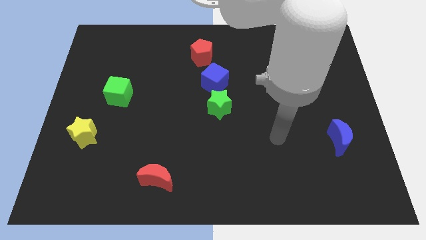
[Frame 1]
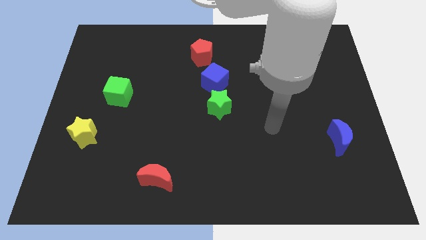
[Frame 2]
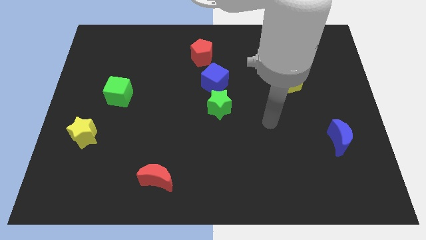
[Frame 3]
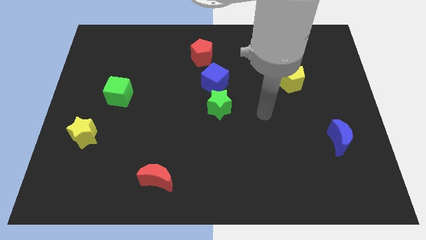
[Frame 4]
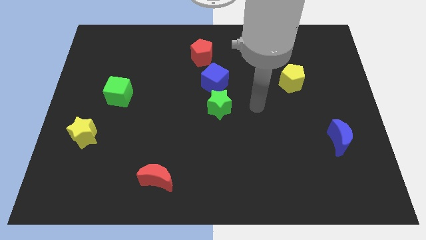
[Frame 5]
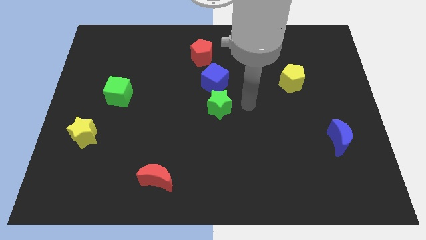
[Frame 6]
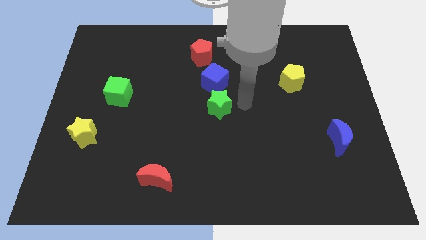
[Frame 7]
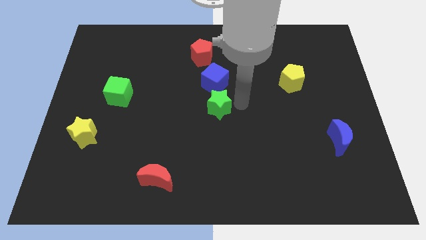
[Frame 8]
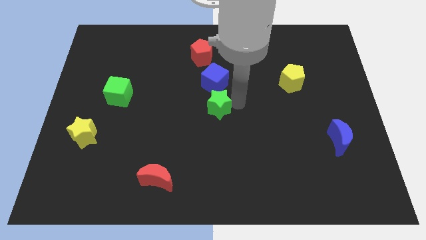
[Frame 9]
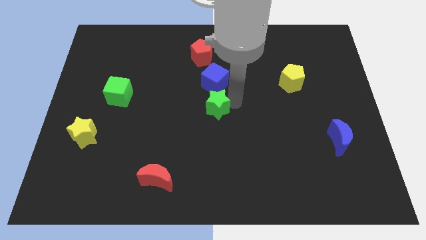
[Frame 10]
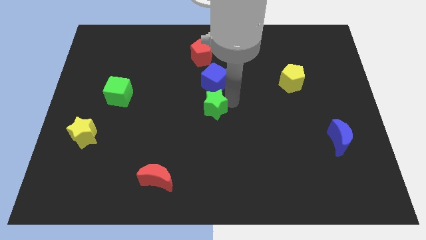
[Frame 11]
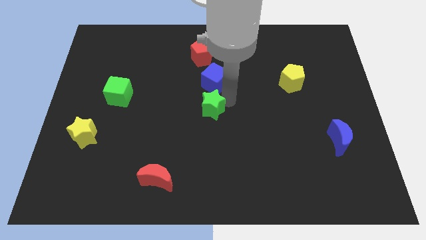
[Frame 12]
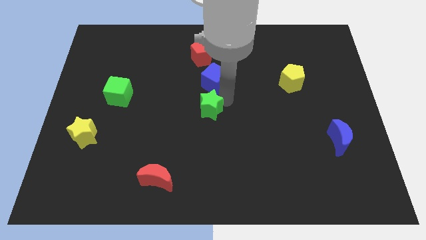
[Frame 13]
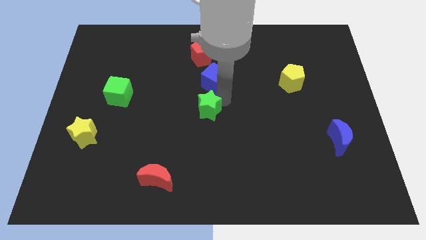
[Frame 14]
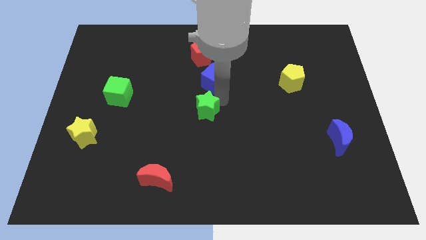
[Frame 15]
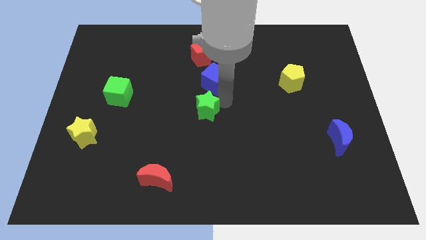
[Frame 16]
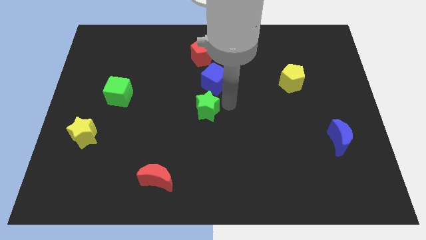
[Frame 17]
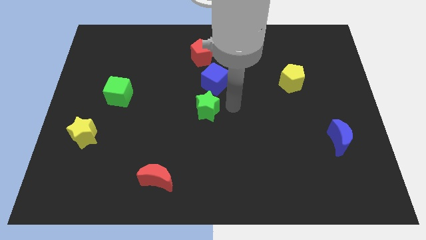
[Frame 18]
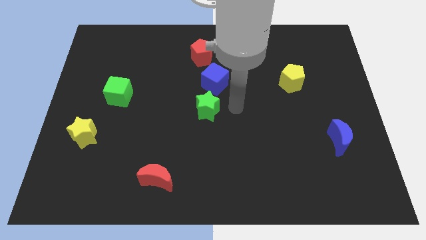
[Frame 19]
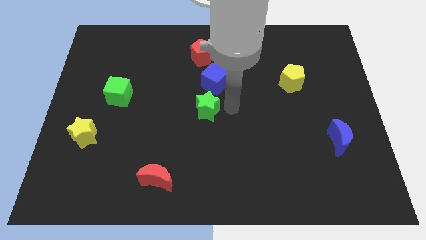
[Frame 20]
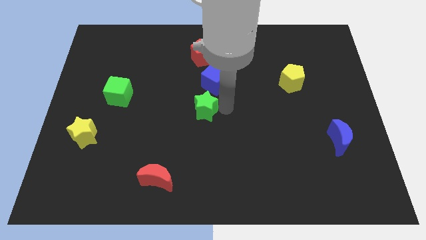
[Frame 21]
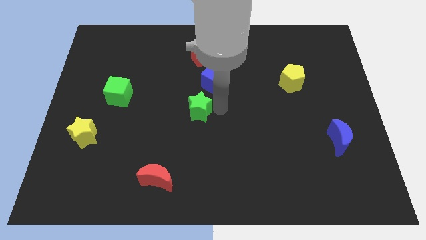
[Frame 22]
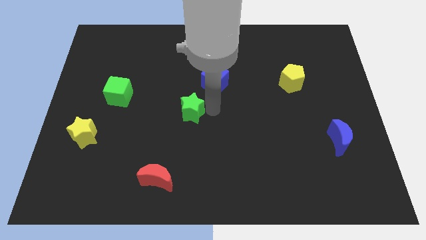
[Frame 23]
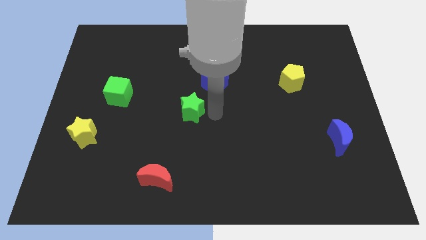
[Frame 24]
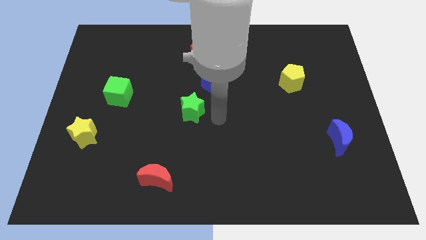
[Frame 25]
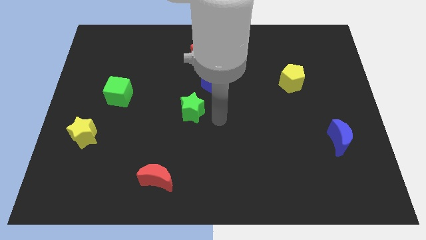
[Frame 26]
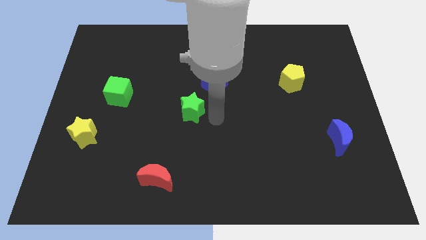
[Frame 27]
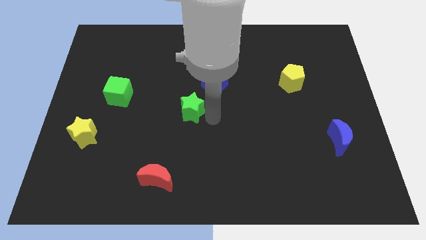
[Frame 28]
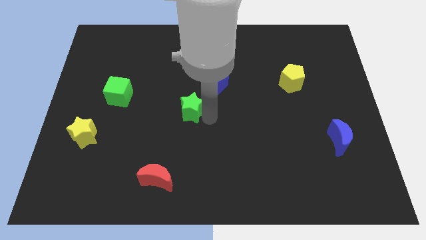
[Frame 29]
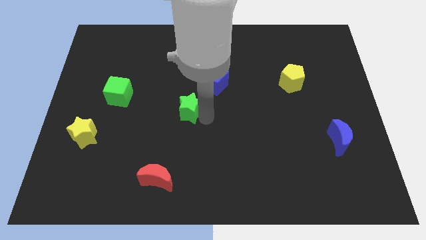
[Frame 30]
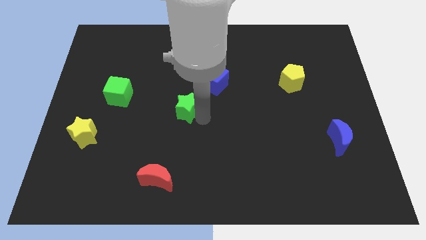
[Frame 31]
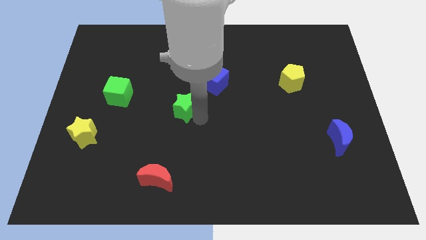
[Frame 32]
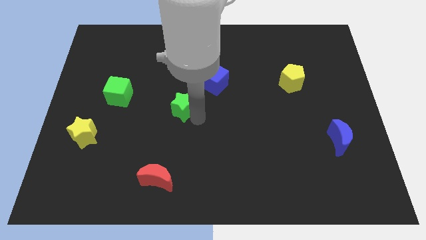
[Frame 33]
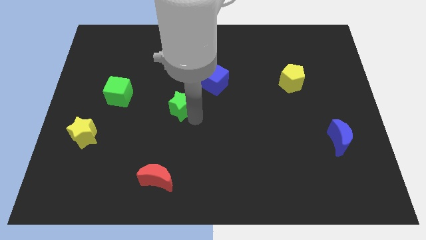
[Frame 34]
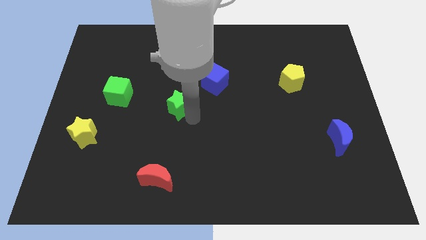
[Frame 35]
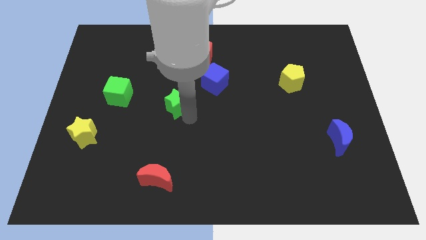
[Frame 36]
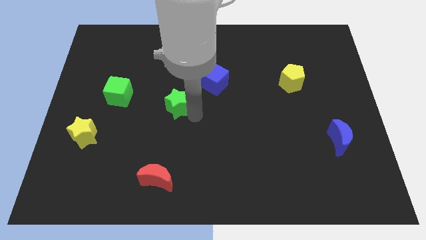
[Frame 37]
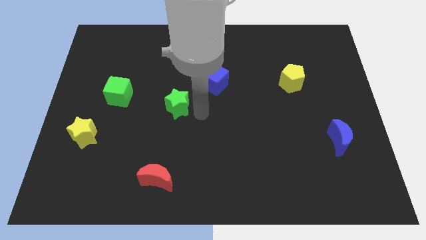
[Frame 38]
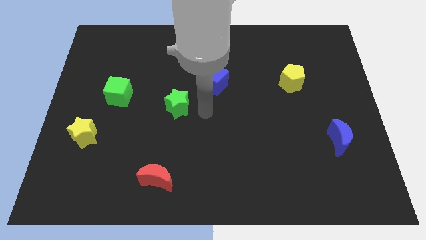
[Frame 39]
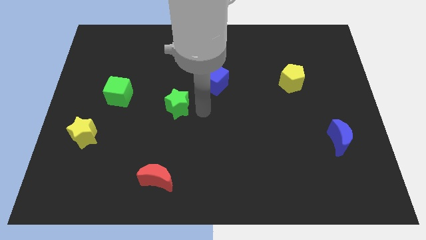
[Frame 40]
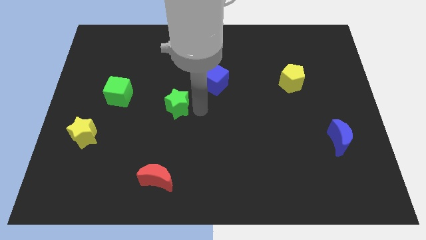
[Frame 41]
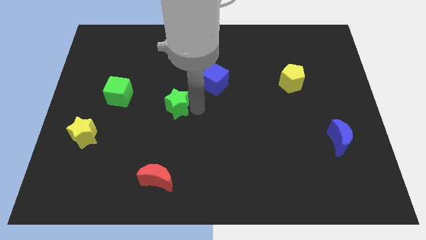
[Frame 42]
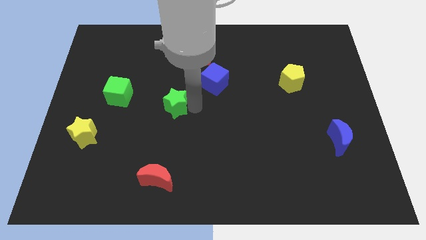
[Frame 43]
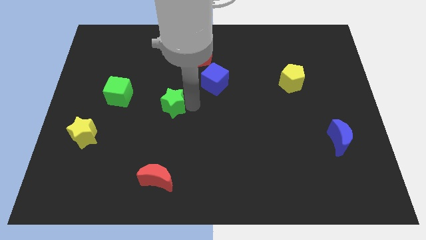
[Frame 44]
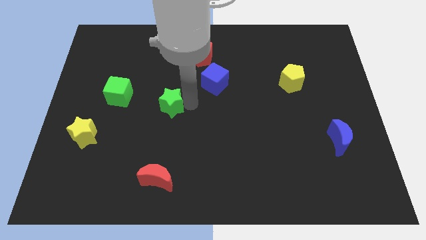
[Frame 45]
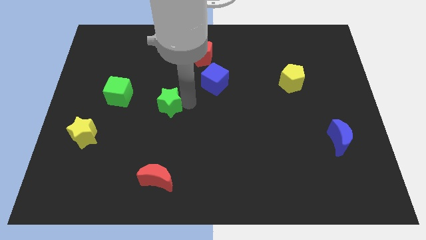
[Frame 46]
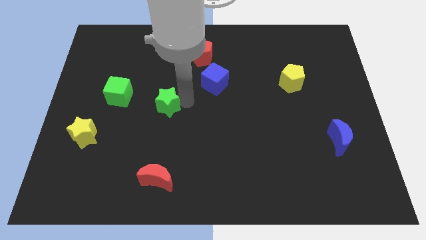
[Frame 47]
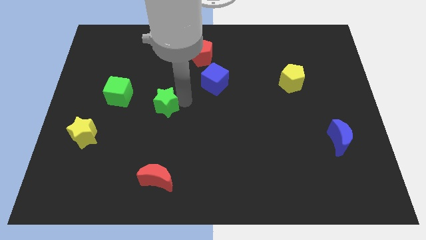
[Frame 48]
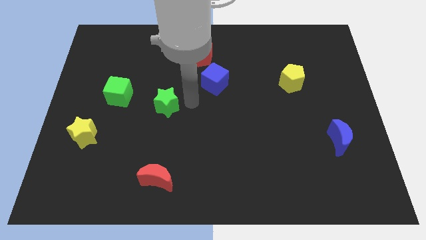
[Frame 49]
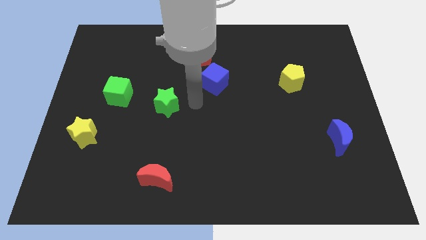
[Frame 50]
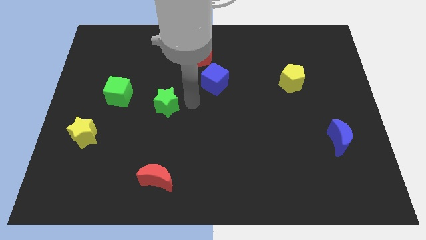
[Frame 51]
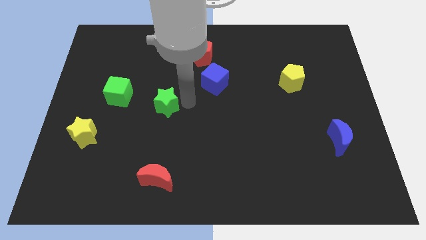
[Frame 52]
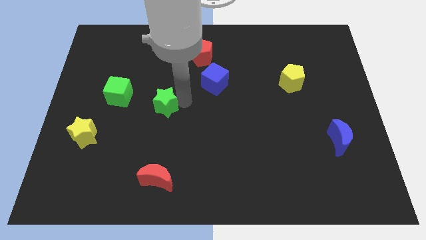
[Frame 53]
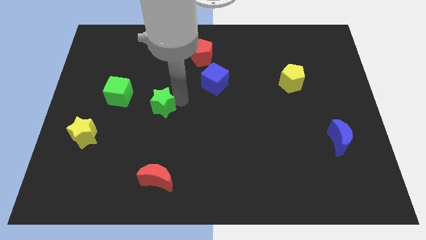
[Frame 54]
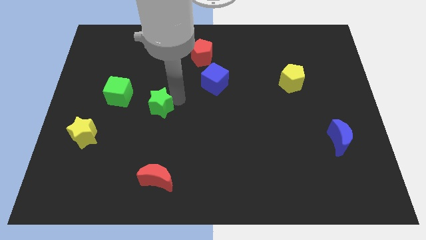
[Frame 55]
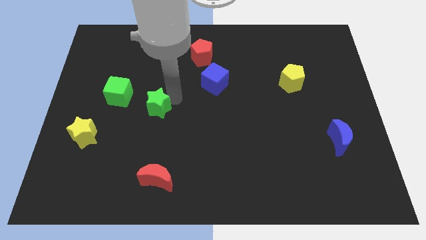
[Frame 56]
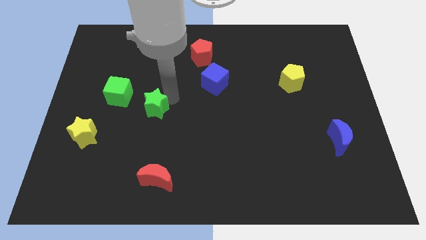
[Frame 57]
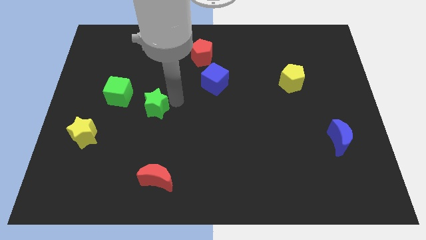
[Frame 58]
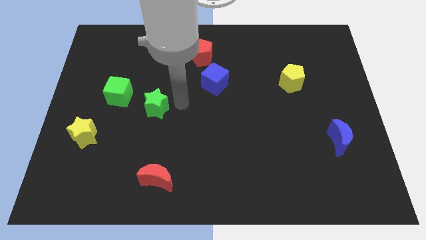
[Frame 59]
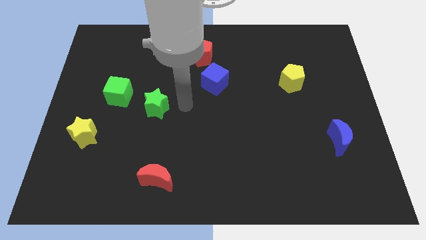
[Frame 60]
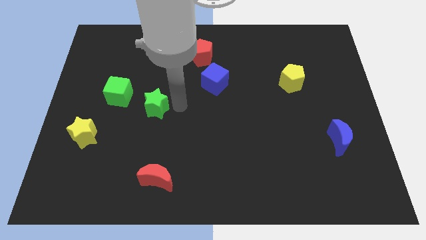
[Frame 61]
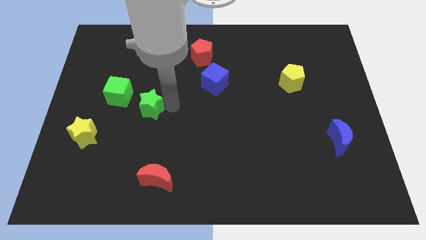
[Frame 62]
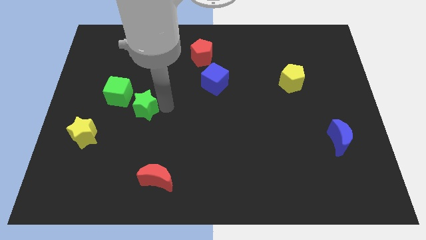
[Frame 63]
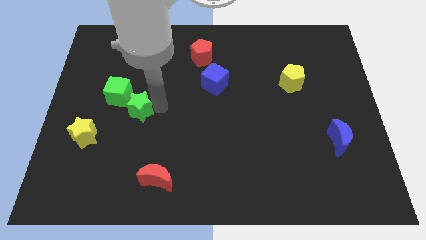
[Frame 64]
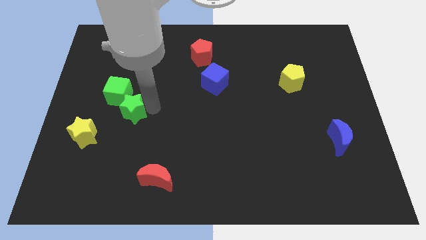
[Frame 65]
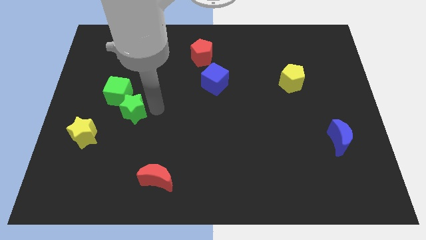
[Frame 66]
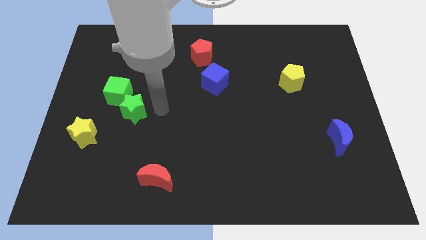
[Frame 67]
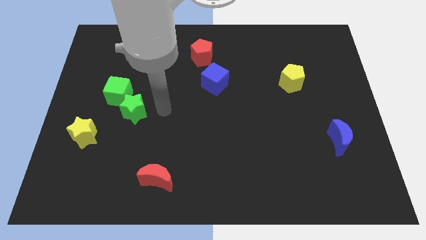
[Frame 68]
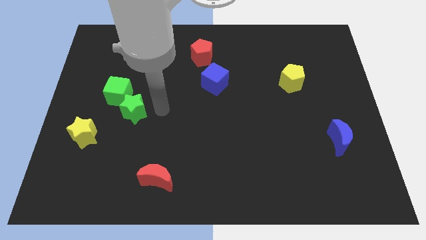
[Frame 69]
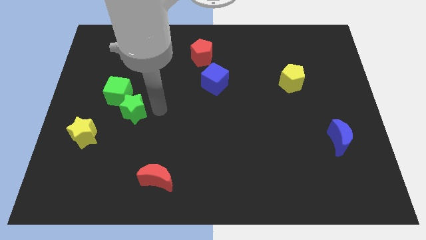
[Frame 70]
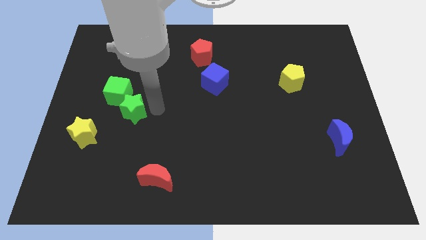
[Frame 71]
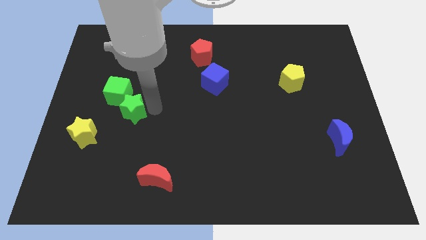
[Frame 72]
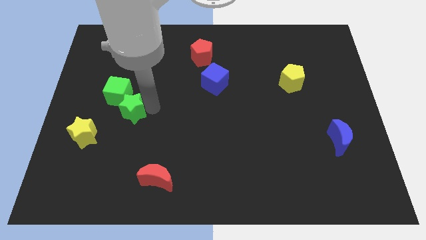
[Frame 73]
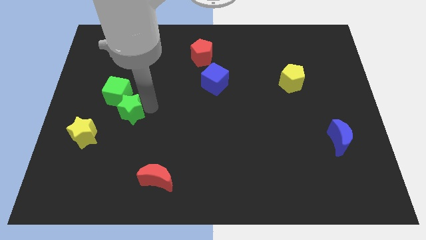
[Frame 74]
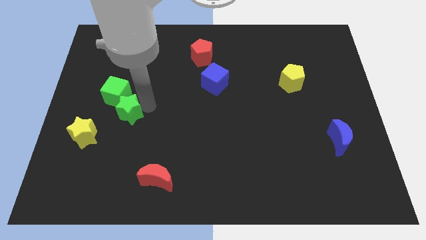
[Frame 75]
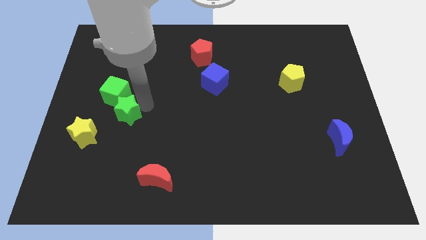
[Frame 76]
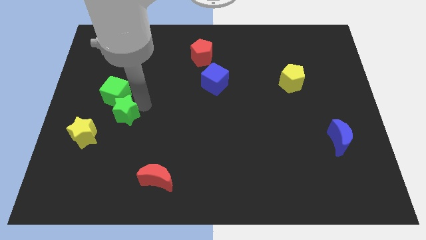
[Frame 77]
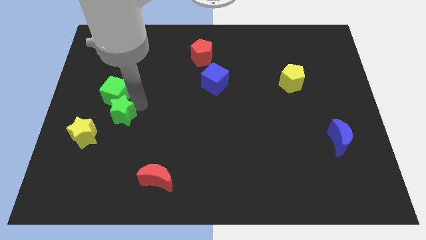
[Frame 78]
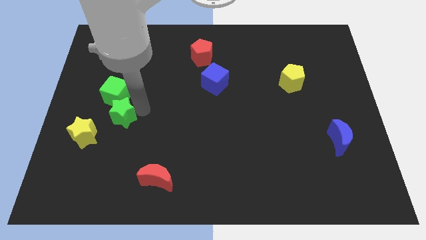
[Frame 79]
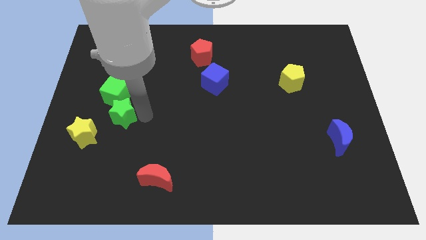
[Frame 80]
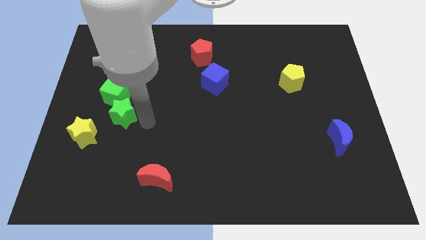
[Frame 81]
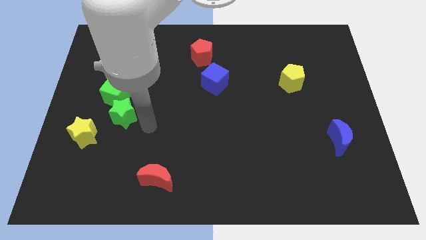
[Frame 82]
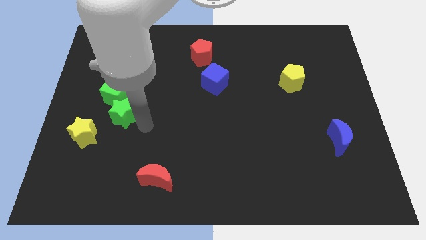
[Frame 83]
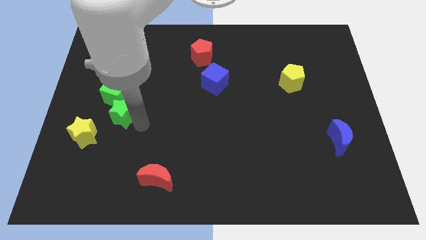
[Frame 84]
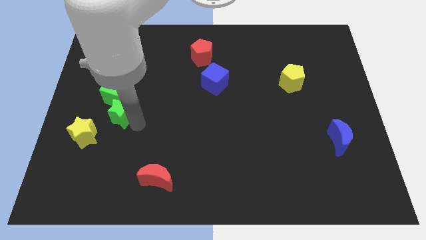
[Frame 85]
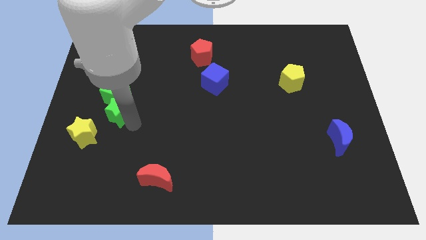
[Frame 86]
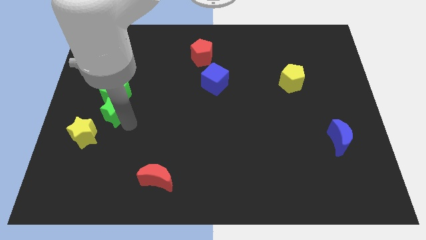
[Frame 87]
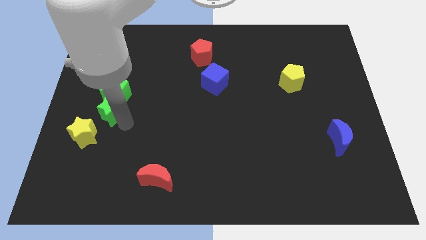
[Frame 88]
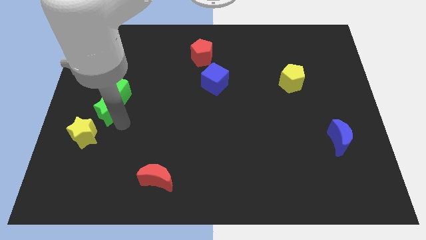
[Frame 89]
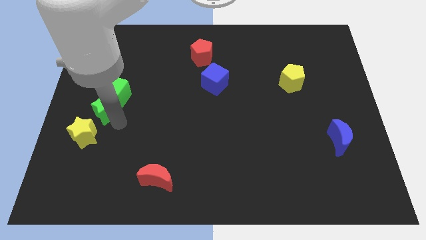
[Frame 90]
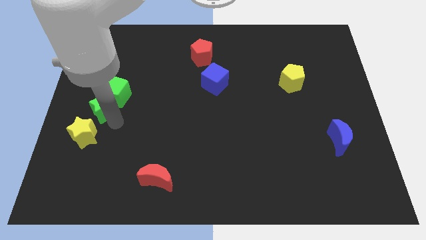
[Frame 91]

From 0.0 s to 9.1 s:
slide the green star to the left side
